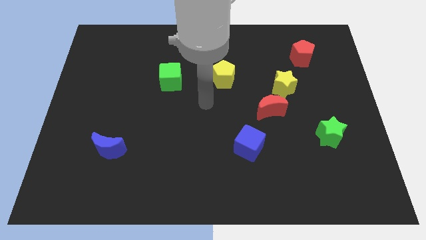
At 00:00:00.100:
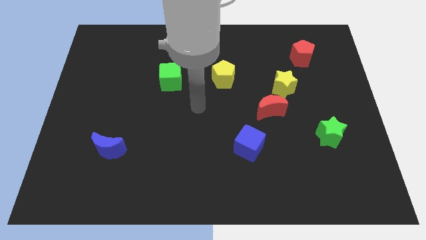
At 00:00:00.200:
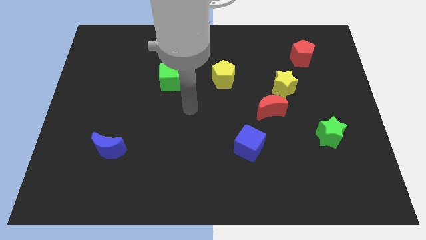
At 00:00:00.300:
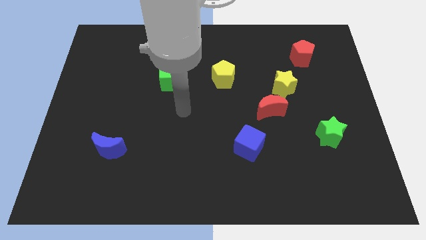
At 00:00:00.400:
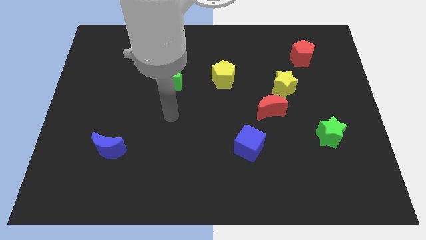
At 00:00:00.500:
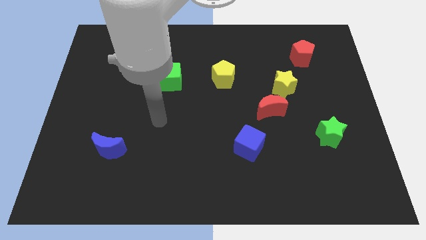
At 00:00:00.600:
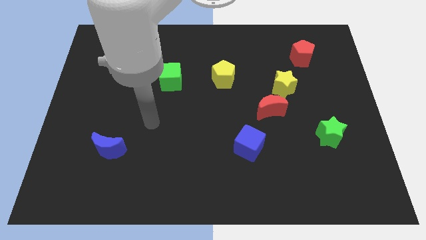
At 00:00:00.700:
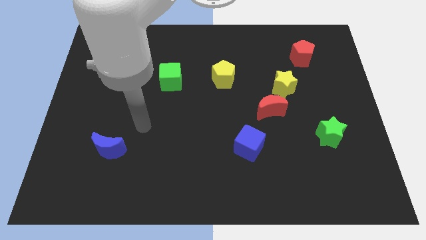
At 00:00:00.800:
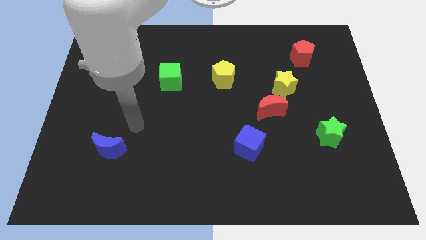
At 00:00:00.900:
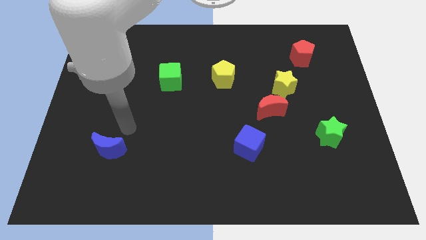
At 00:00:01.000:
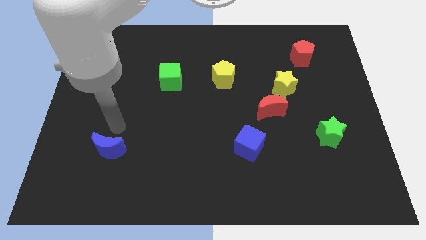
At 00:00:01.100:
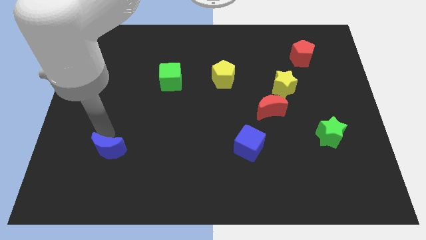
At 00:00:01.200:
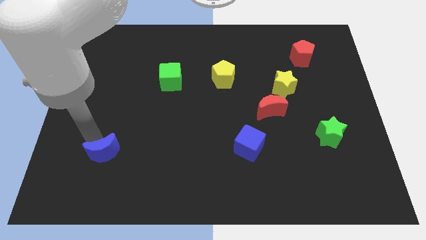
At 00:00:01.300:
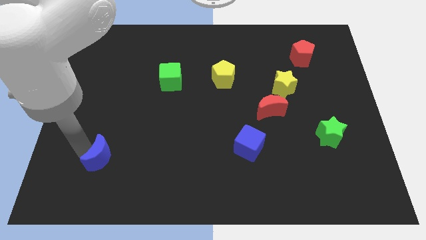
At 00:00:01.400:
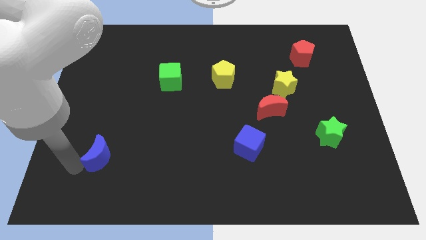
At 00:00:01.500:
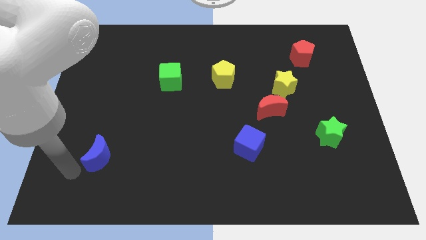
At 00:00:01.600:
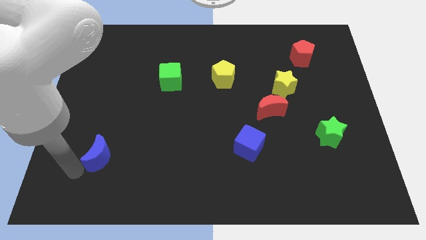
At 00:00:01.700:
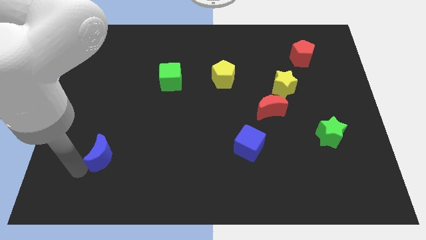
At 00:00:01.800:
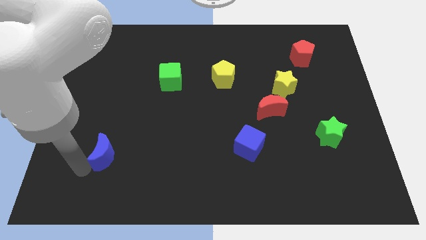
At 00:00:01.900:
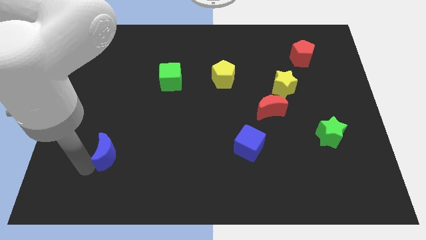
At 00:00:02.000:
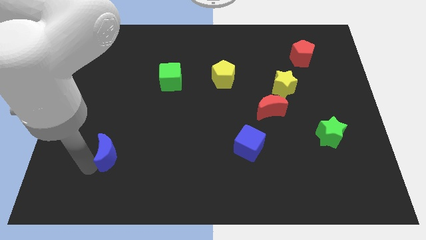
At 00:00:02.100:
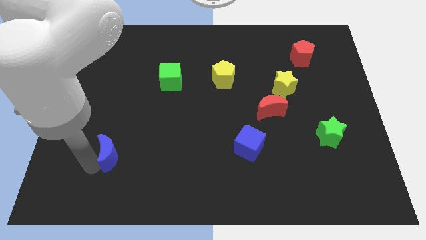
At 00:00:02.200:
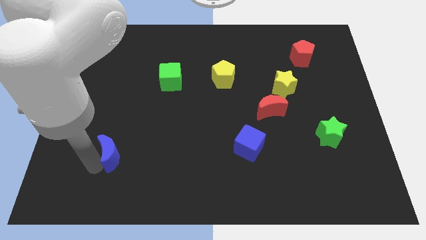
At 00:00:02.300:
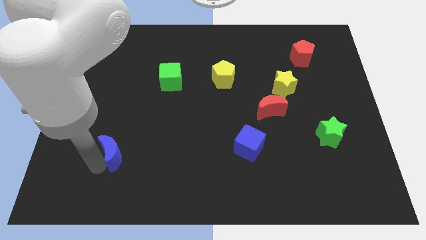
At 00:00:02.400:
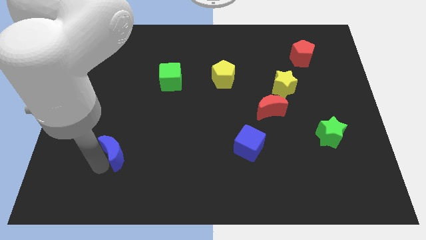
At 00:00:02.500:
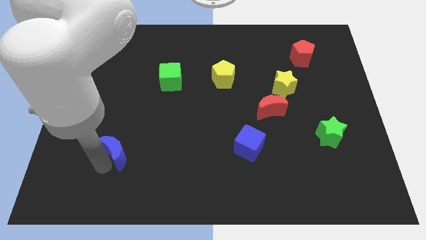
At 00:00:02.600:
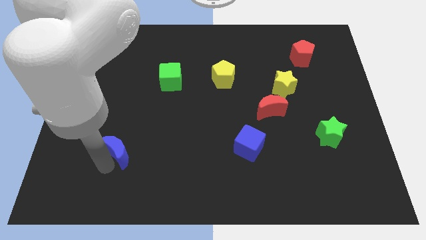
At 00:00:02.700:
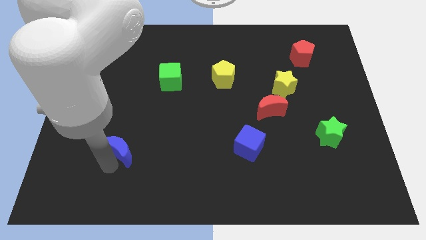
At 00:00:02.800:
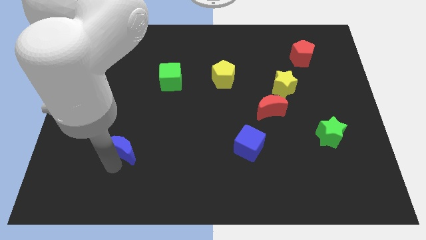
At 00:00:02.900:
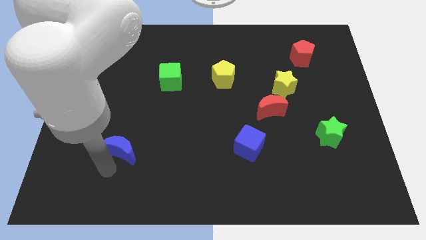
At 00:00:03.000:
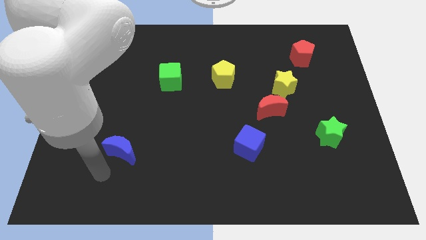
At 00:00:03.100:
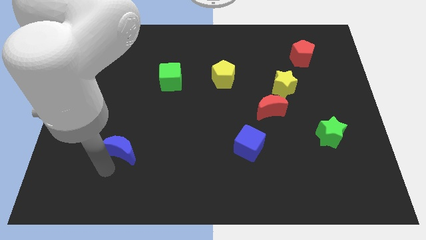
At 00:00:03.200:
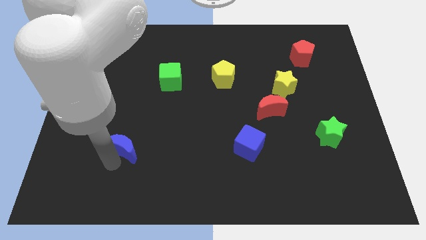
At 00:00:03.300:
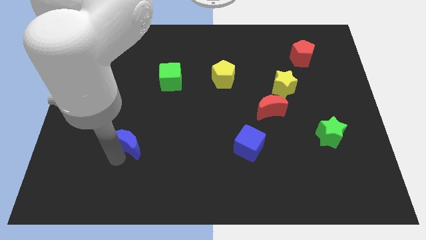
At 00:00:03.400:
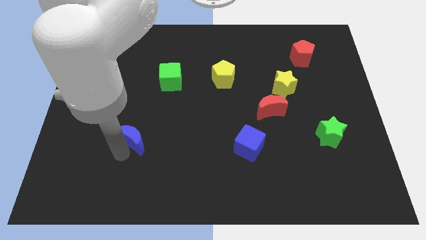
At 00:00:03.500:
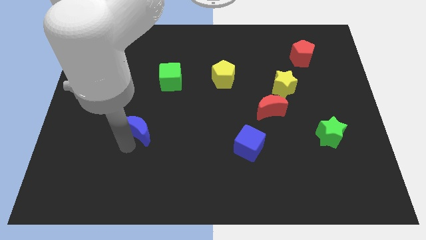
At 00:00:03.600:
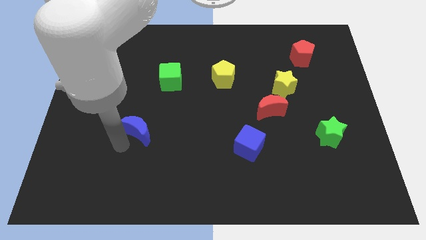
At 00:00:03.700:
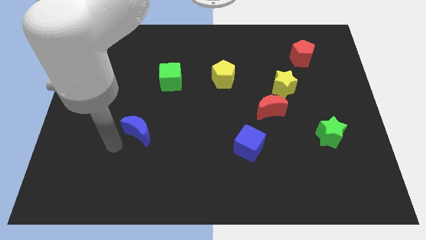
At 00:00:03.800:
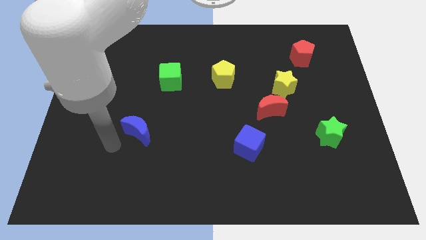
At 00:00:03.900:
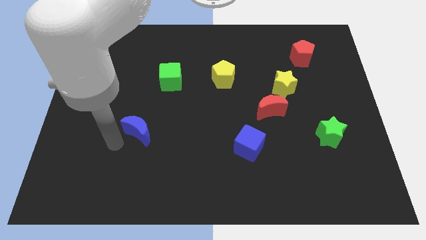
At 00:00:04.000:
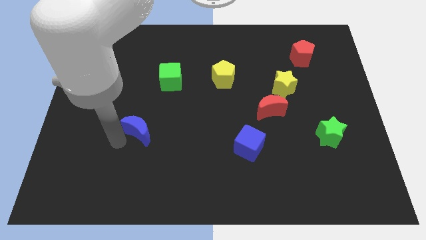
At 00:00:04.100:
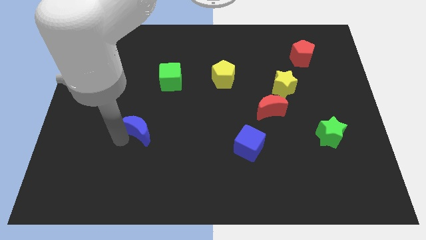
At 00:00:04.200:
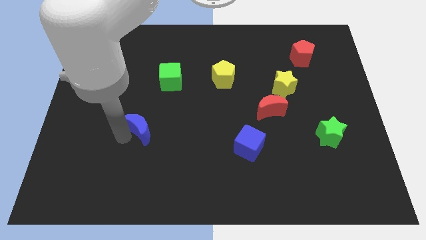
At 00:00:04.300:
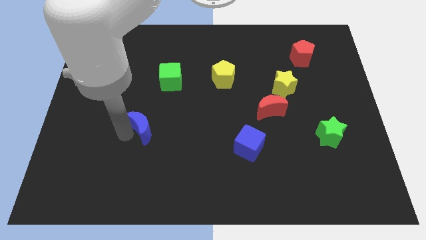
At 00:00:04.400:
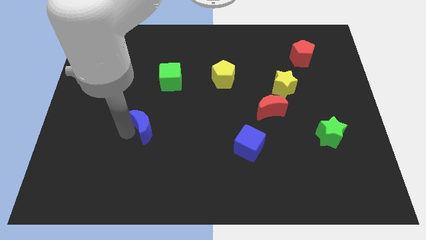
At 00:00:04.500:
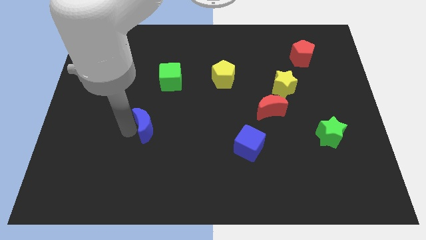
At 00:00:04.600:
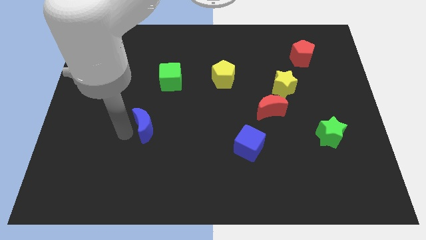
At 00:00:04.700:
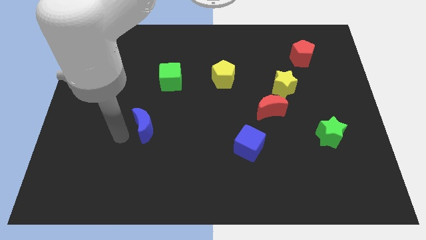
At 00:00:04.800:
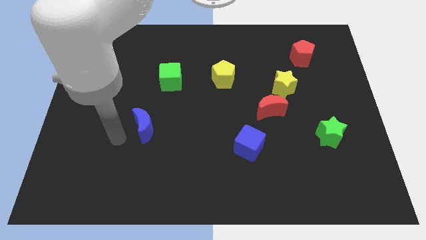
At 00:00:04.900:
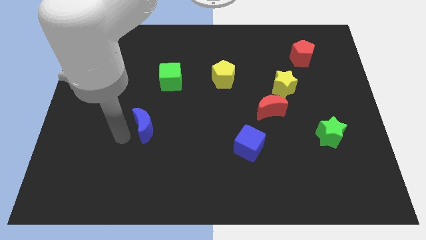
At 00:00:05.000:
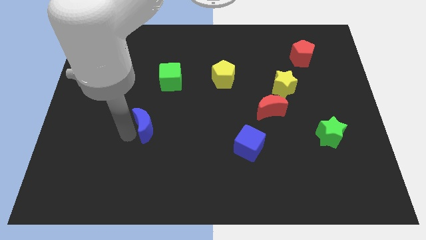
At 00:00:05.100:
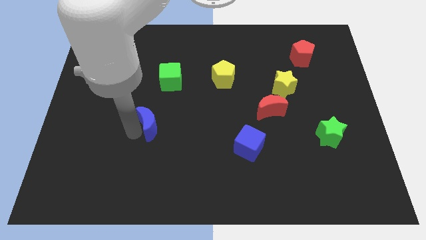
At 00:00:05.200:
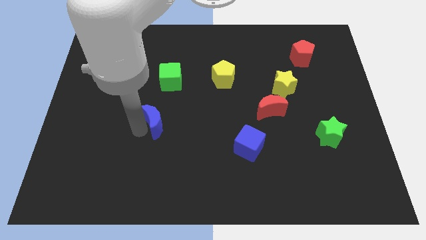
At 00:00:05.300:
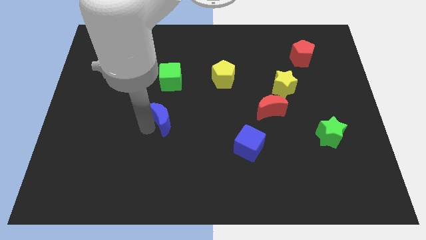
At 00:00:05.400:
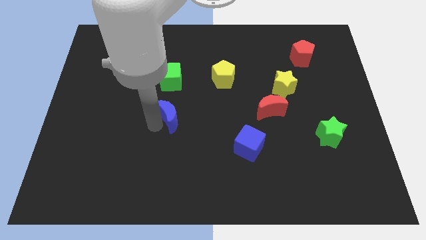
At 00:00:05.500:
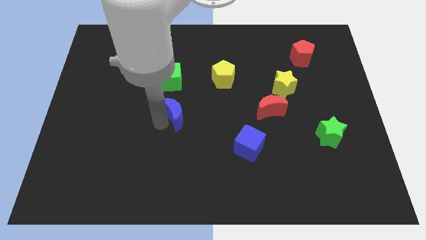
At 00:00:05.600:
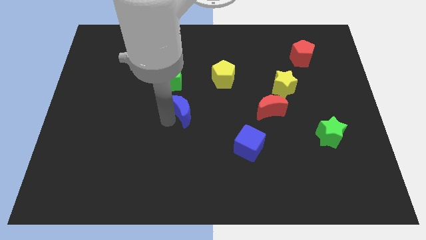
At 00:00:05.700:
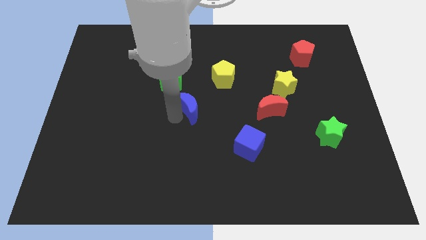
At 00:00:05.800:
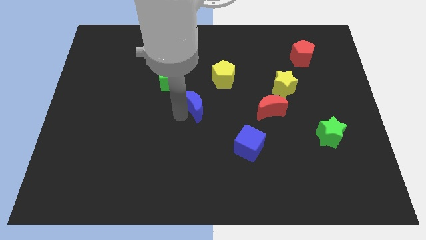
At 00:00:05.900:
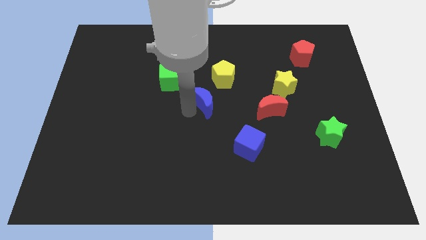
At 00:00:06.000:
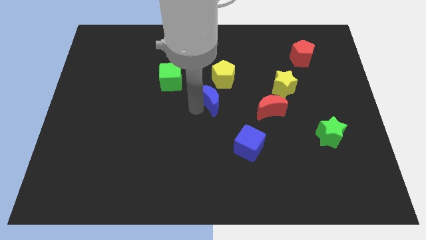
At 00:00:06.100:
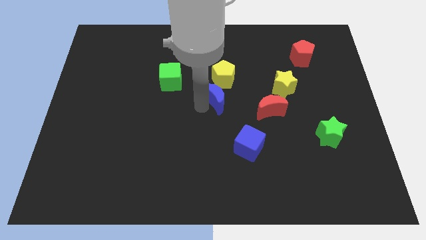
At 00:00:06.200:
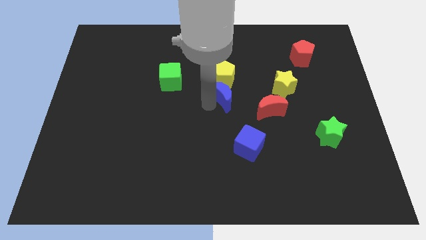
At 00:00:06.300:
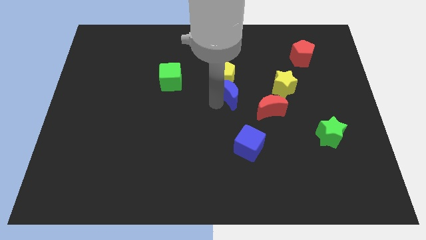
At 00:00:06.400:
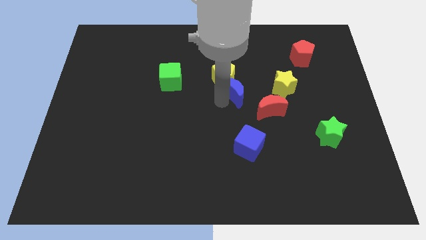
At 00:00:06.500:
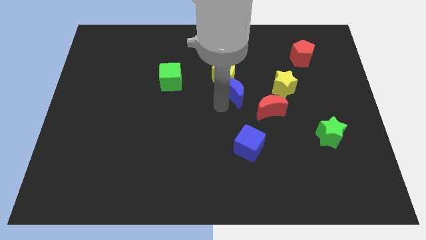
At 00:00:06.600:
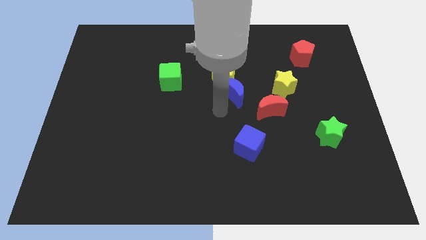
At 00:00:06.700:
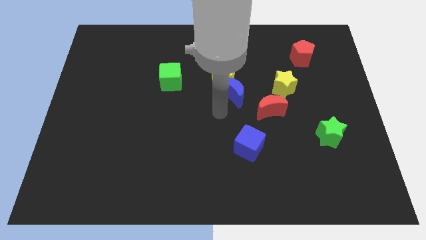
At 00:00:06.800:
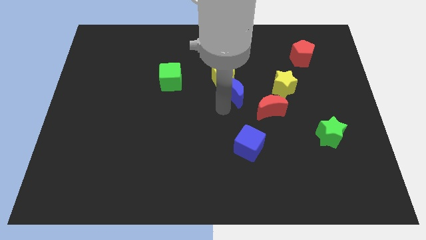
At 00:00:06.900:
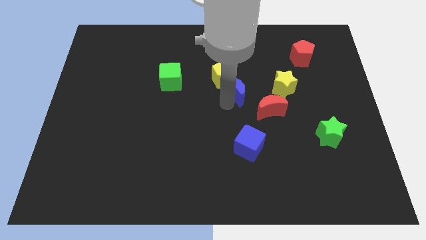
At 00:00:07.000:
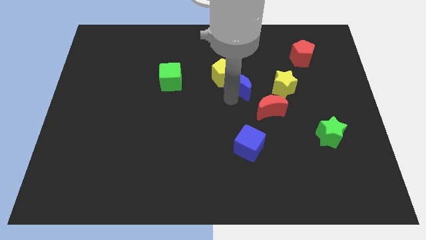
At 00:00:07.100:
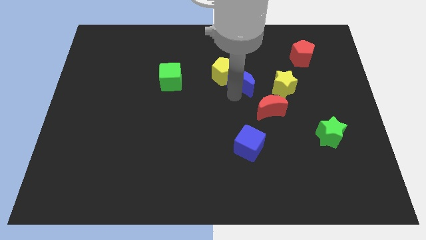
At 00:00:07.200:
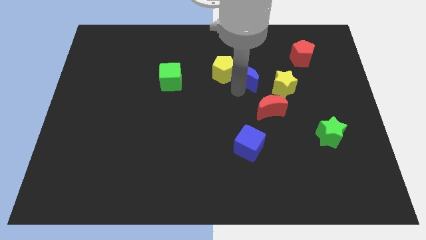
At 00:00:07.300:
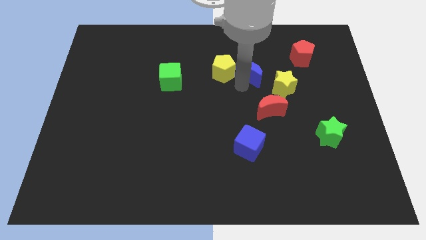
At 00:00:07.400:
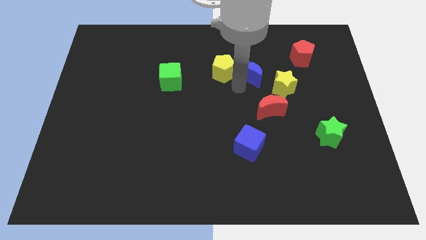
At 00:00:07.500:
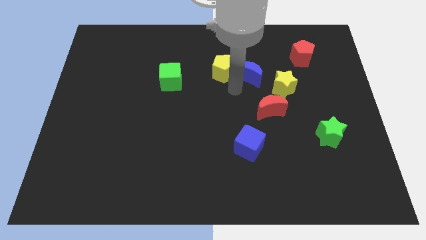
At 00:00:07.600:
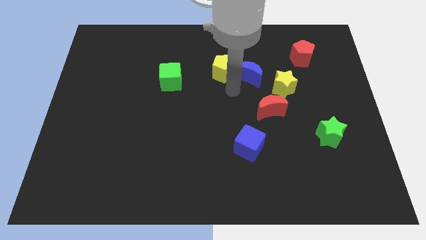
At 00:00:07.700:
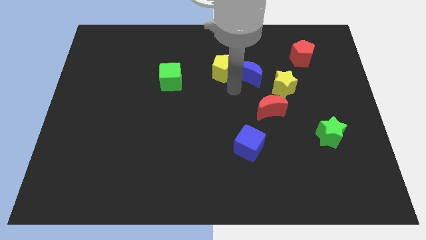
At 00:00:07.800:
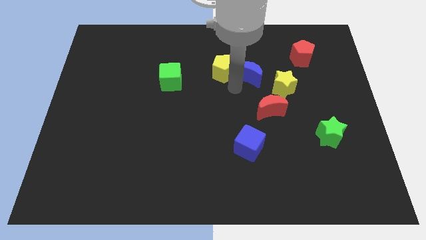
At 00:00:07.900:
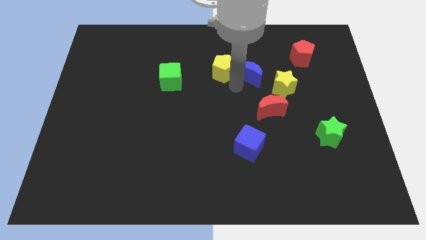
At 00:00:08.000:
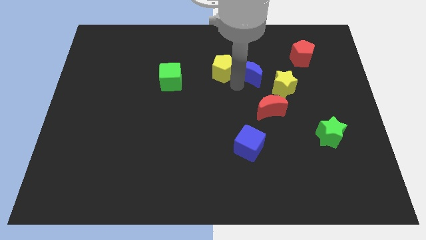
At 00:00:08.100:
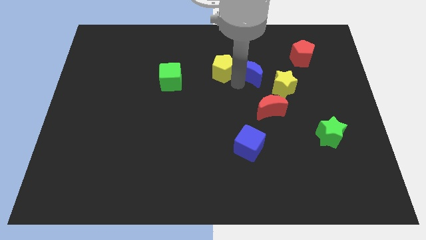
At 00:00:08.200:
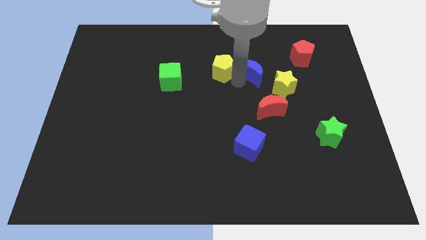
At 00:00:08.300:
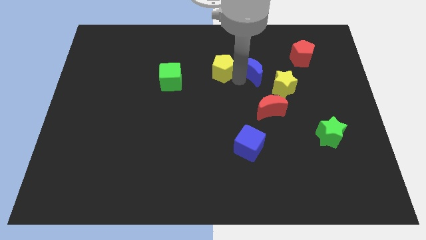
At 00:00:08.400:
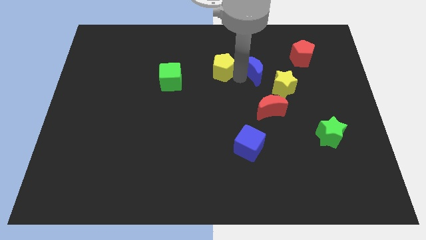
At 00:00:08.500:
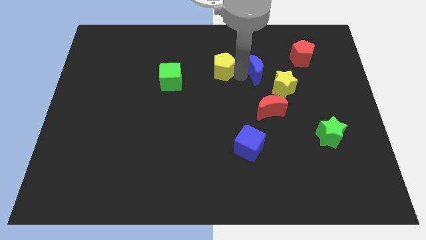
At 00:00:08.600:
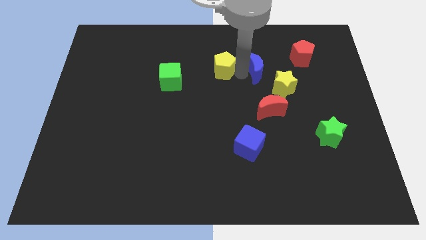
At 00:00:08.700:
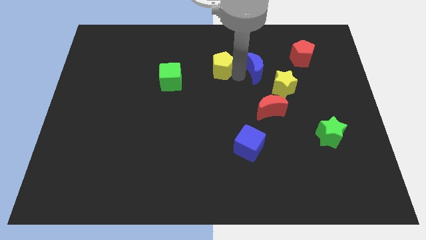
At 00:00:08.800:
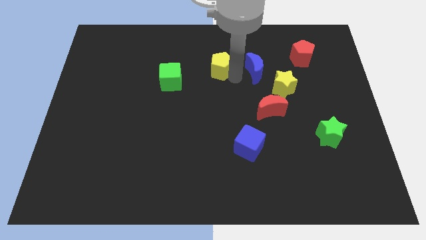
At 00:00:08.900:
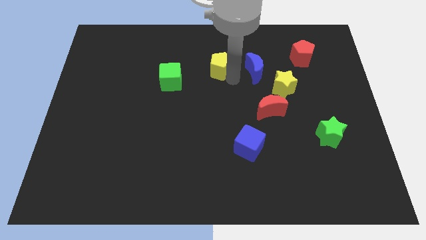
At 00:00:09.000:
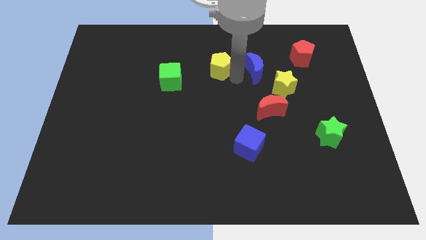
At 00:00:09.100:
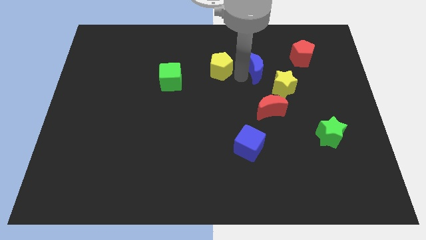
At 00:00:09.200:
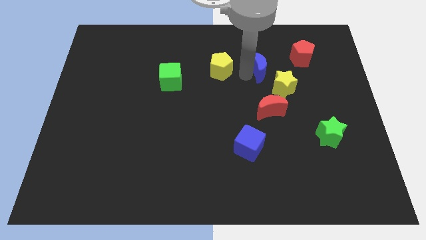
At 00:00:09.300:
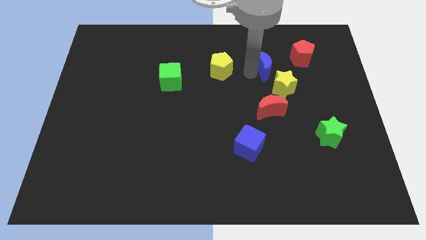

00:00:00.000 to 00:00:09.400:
push the blue moon to the top of the yellow star
